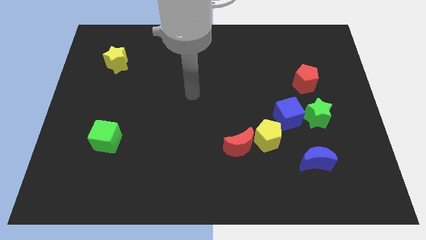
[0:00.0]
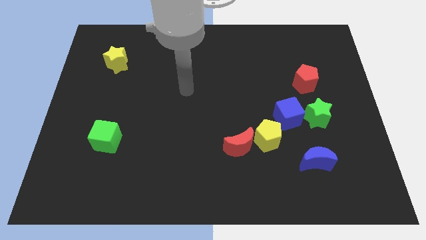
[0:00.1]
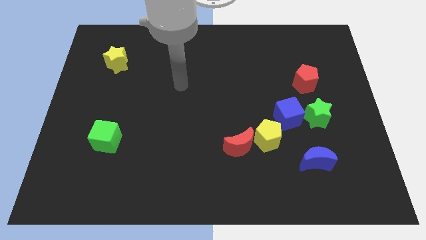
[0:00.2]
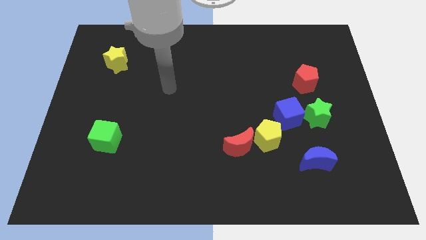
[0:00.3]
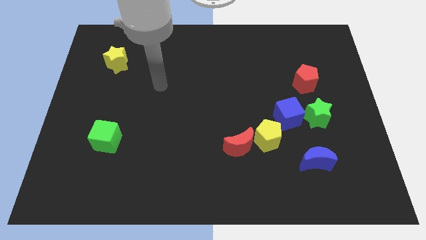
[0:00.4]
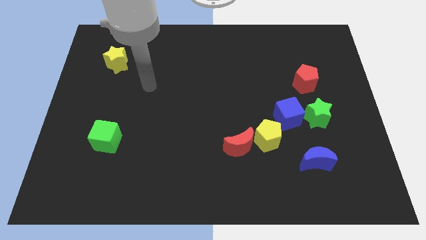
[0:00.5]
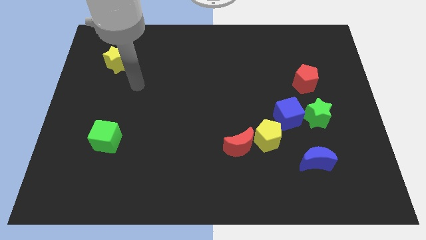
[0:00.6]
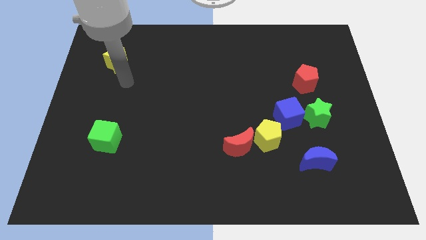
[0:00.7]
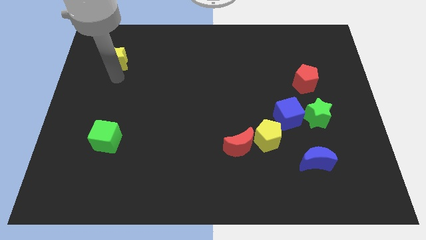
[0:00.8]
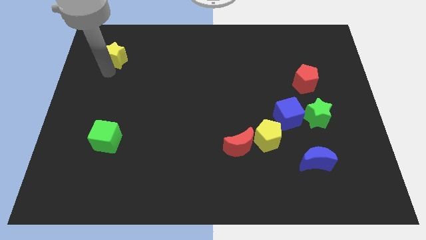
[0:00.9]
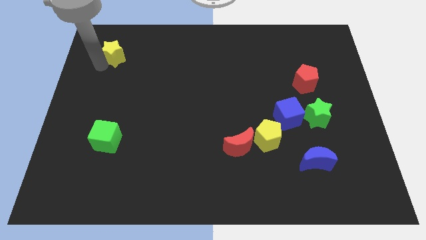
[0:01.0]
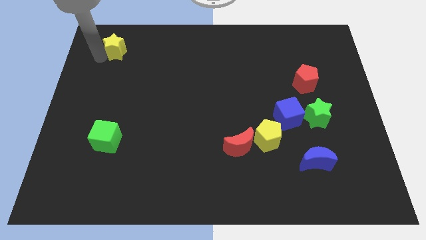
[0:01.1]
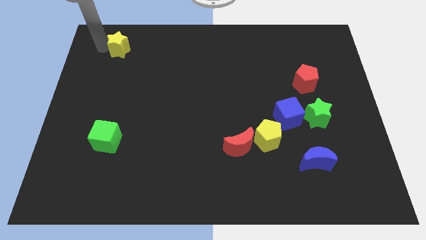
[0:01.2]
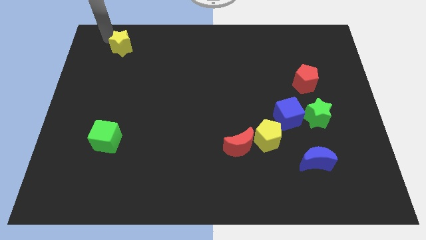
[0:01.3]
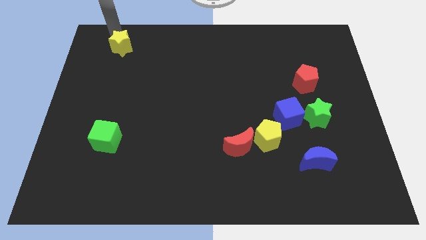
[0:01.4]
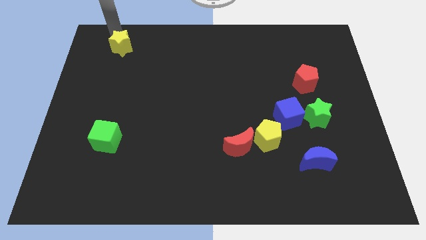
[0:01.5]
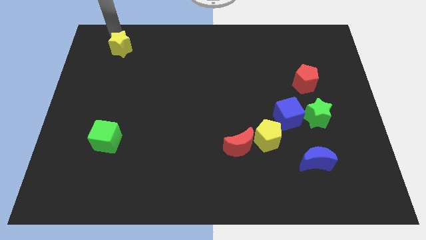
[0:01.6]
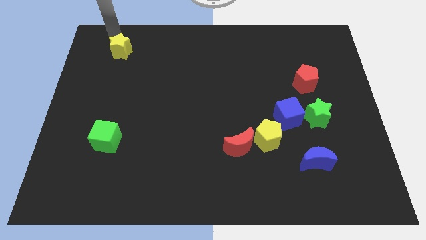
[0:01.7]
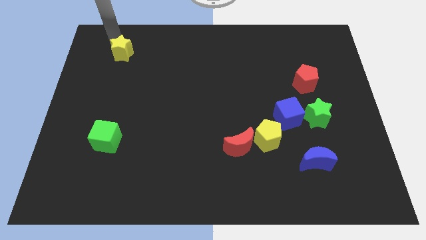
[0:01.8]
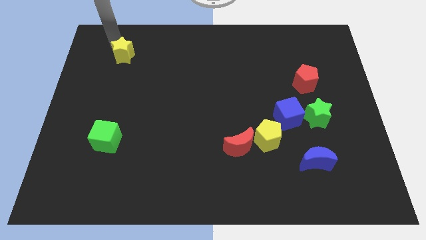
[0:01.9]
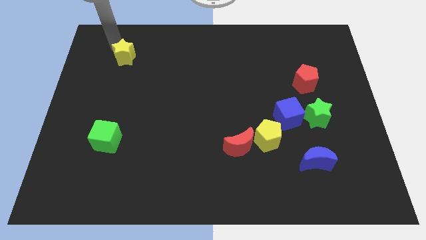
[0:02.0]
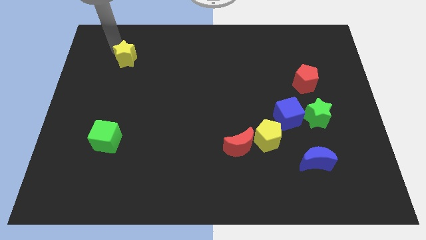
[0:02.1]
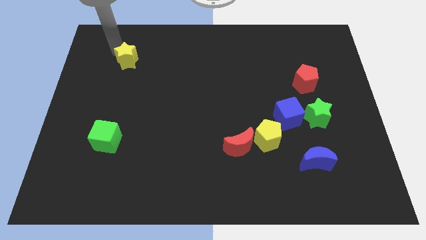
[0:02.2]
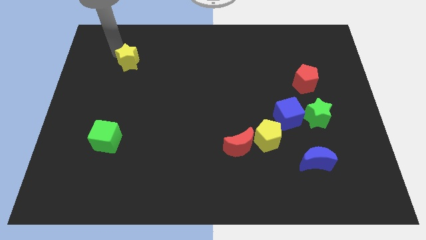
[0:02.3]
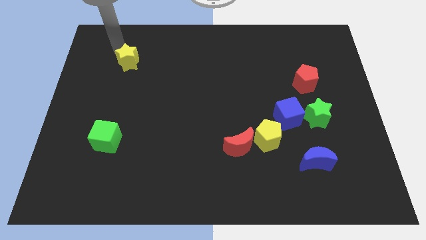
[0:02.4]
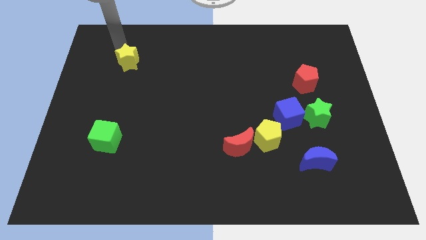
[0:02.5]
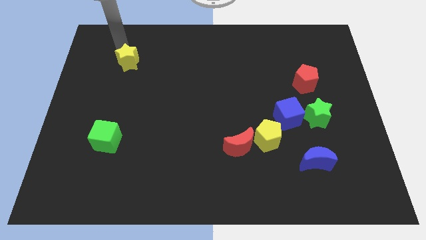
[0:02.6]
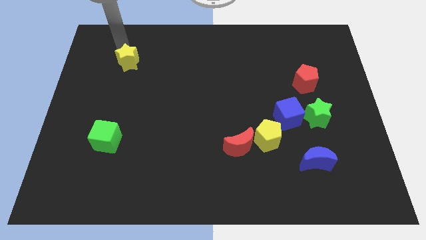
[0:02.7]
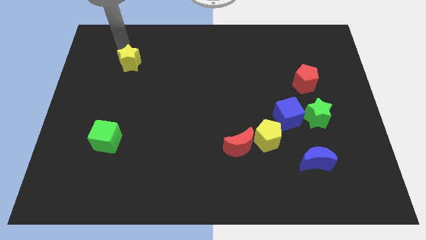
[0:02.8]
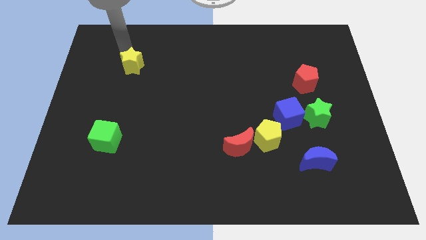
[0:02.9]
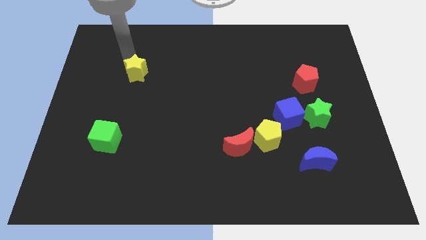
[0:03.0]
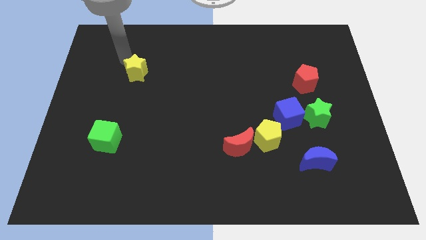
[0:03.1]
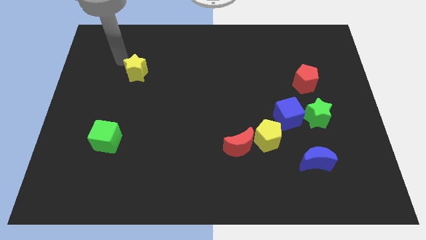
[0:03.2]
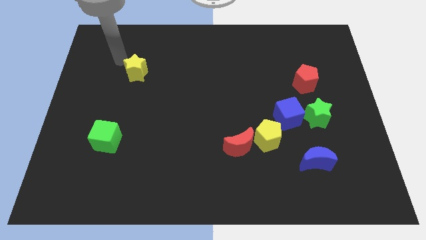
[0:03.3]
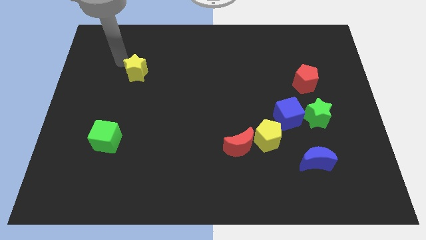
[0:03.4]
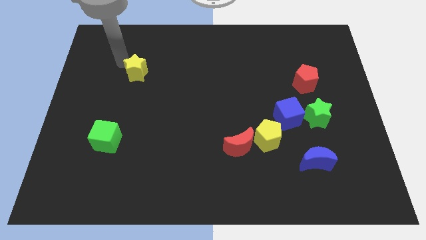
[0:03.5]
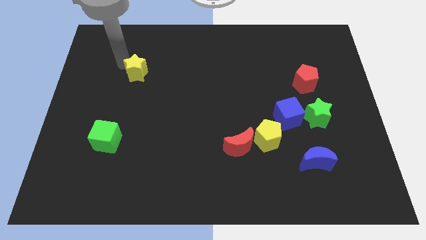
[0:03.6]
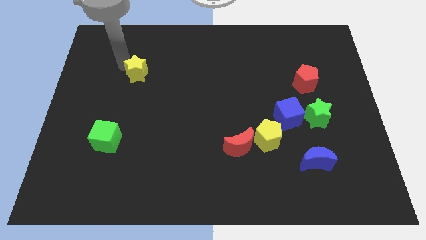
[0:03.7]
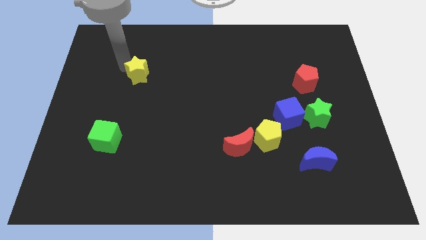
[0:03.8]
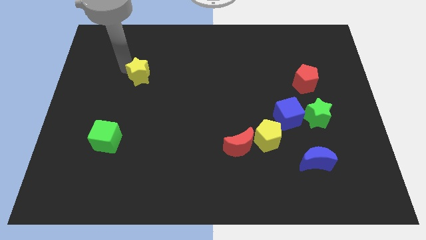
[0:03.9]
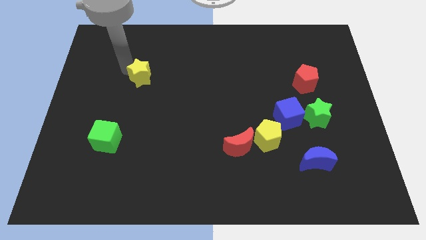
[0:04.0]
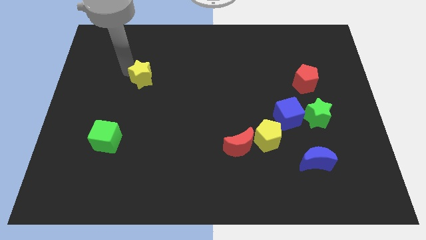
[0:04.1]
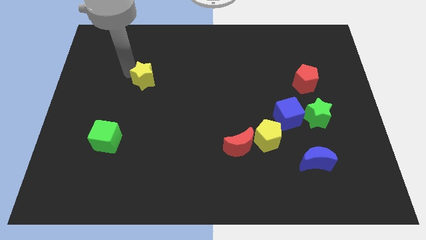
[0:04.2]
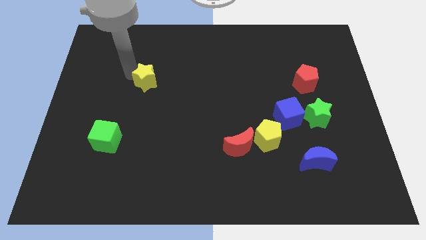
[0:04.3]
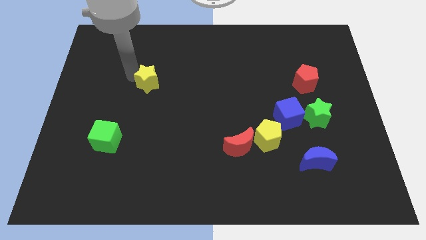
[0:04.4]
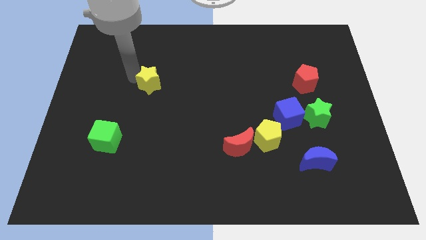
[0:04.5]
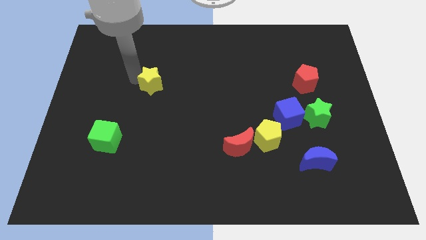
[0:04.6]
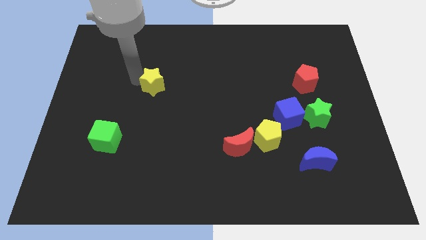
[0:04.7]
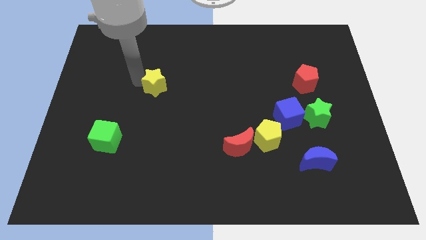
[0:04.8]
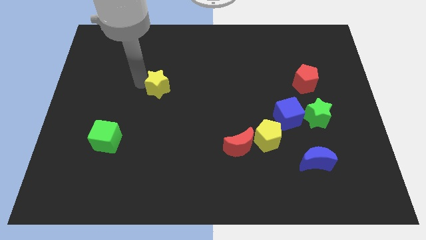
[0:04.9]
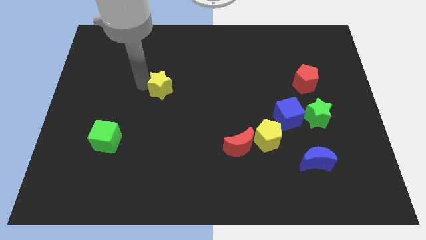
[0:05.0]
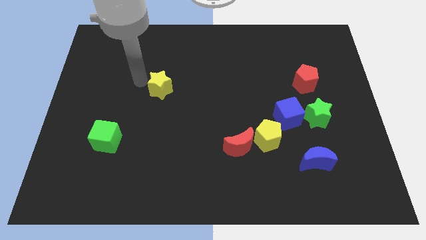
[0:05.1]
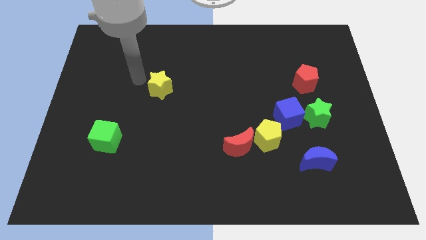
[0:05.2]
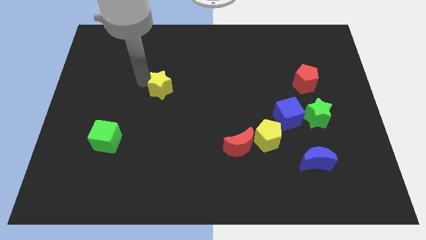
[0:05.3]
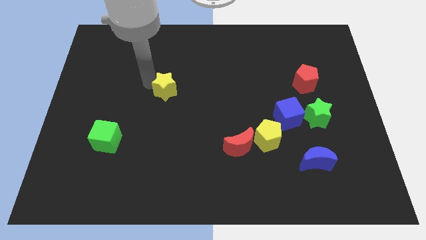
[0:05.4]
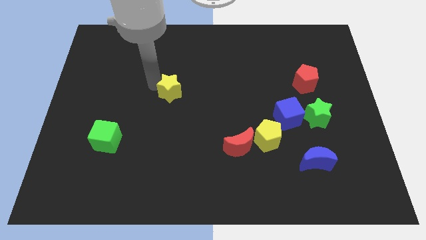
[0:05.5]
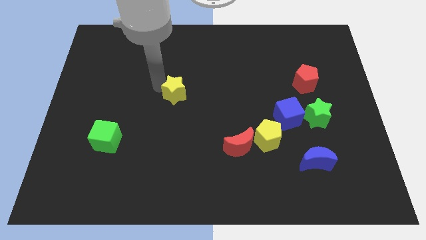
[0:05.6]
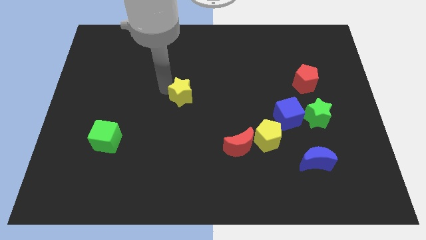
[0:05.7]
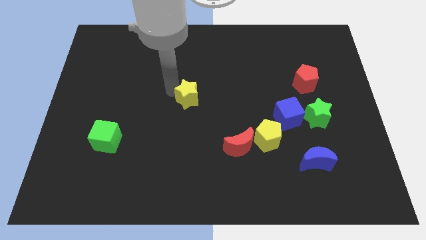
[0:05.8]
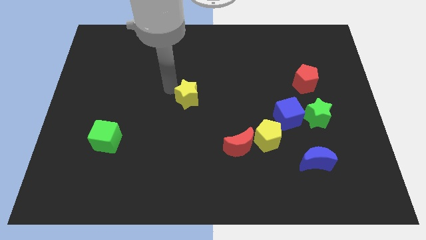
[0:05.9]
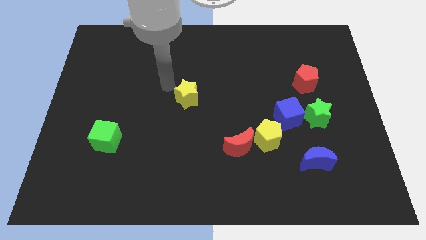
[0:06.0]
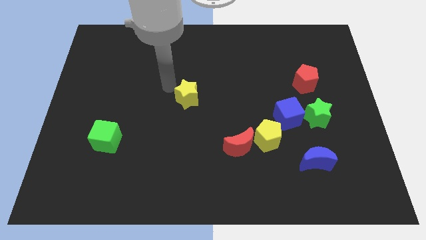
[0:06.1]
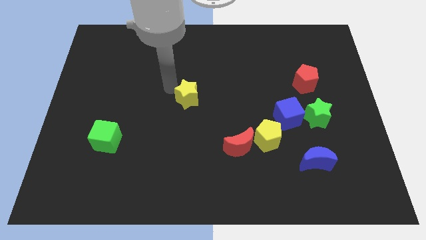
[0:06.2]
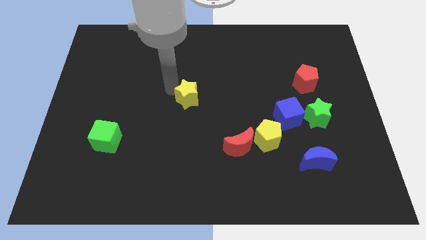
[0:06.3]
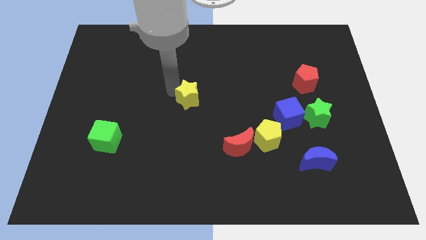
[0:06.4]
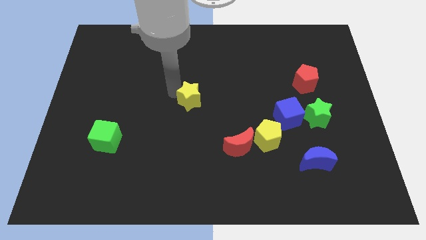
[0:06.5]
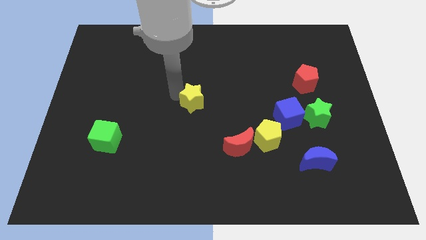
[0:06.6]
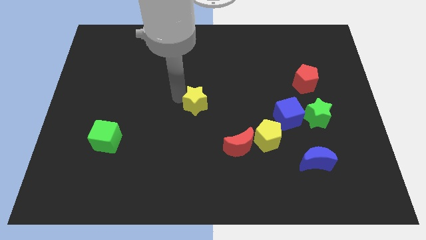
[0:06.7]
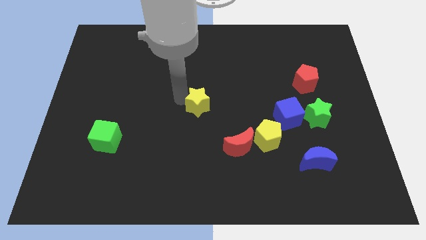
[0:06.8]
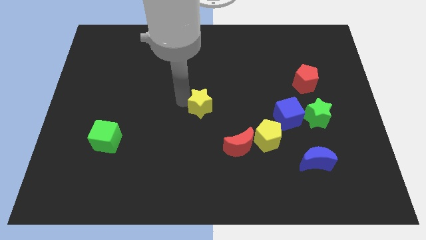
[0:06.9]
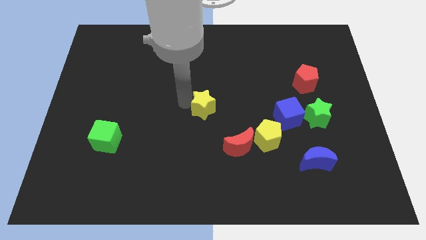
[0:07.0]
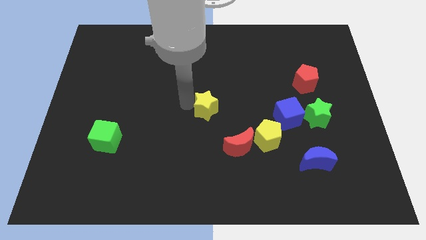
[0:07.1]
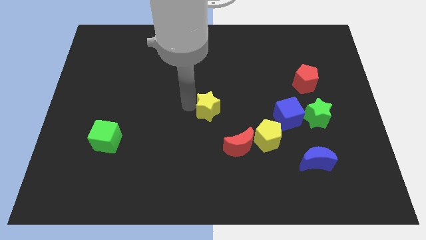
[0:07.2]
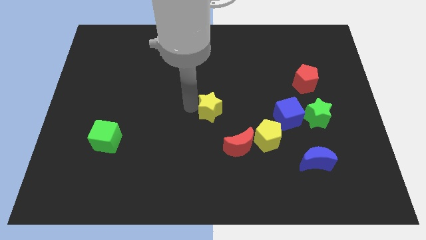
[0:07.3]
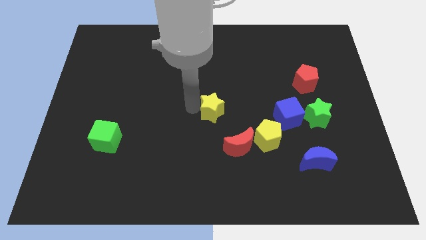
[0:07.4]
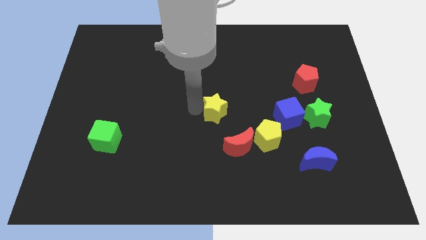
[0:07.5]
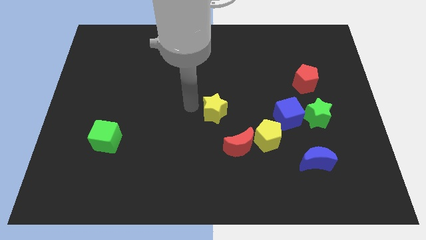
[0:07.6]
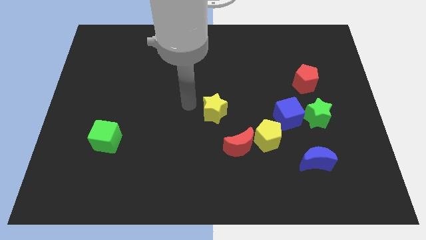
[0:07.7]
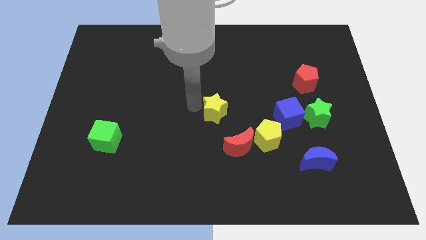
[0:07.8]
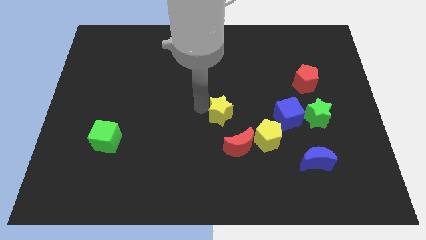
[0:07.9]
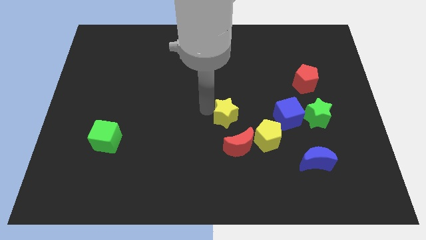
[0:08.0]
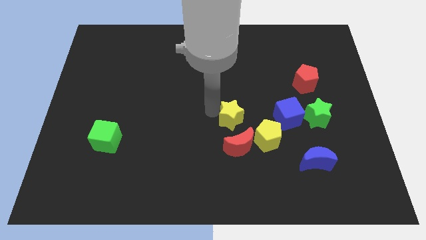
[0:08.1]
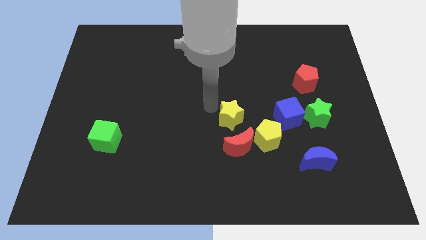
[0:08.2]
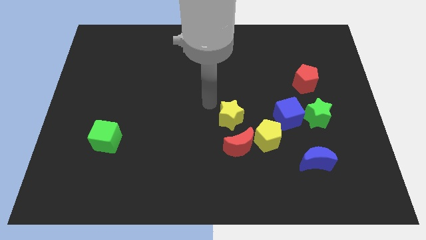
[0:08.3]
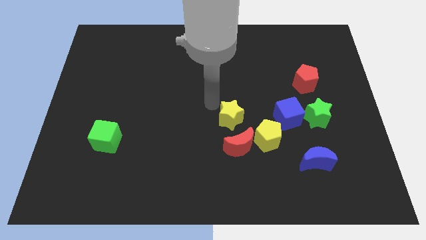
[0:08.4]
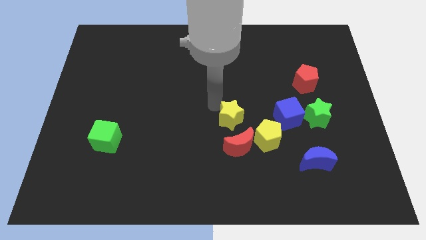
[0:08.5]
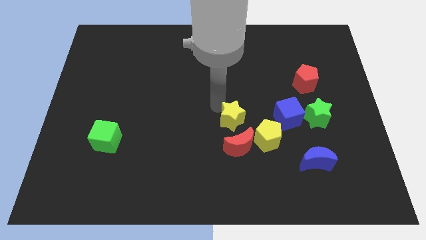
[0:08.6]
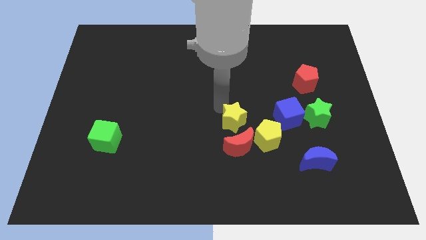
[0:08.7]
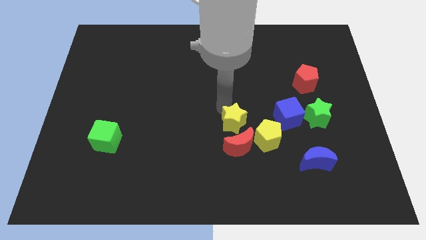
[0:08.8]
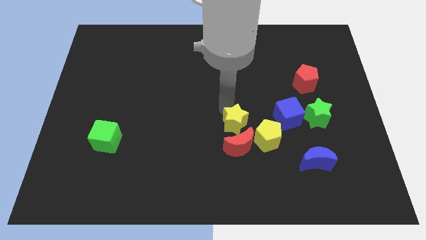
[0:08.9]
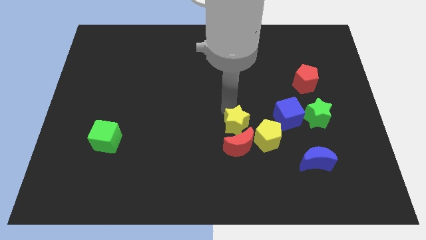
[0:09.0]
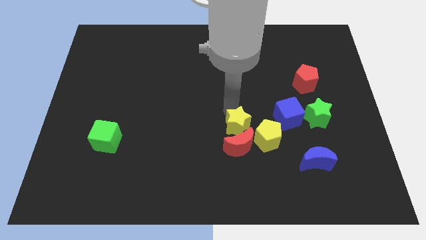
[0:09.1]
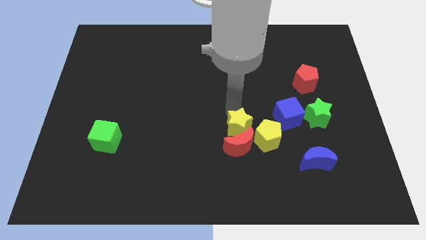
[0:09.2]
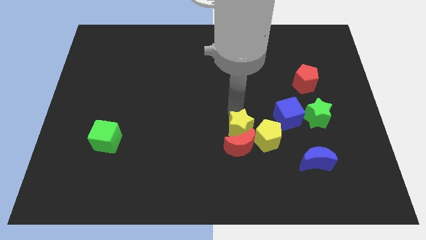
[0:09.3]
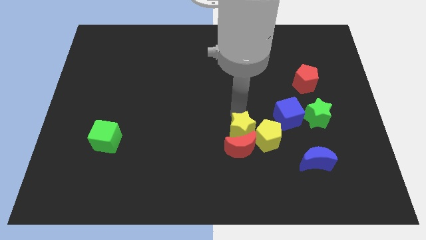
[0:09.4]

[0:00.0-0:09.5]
put the yellow star to the yellow pentagon
